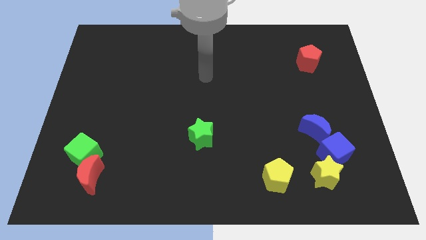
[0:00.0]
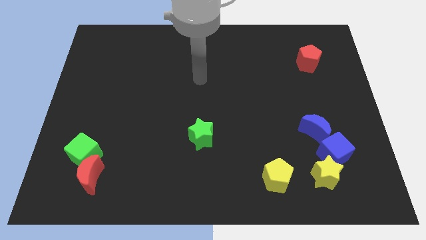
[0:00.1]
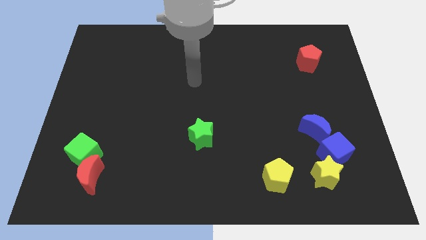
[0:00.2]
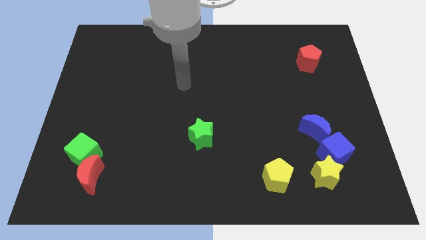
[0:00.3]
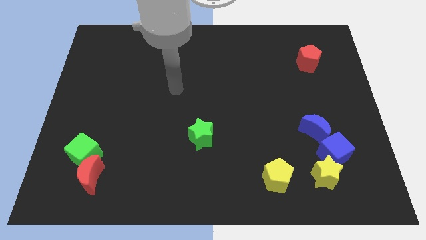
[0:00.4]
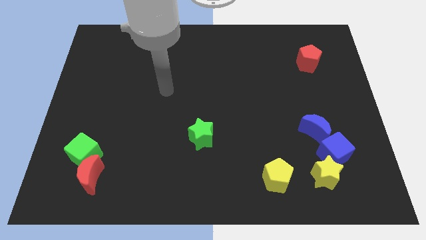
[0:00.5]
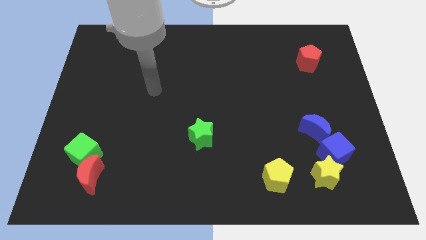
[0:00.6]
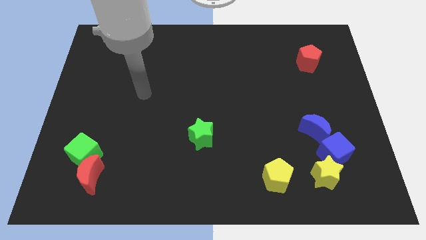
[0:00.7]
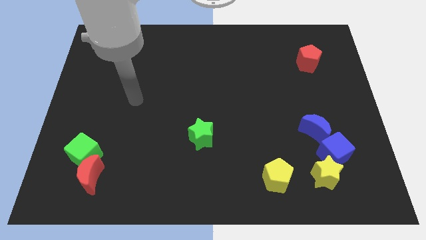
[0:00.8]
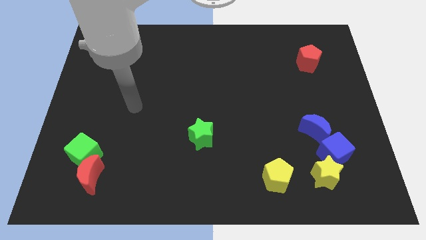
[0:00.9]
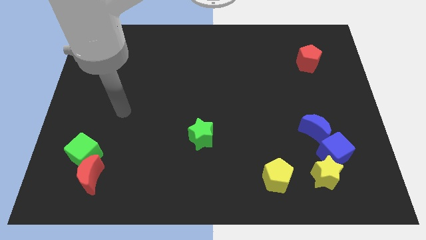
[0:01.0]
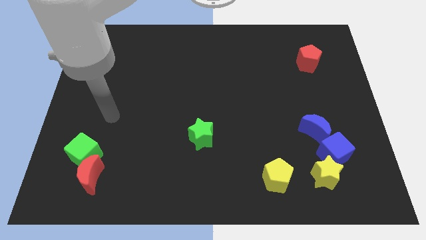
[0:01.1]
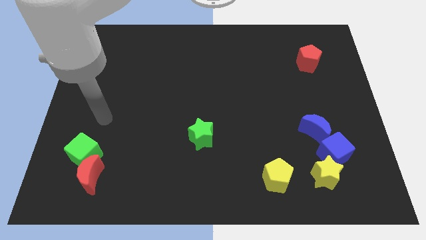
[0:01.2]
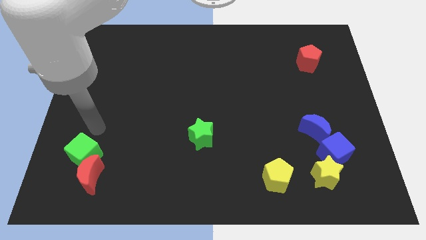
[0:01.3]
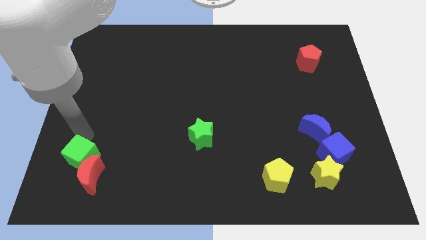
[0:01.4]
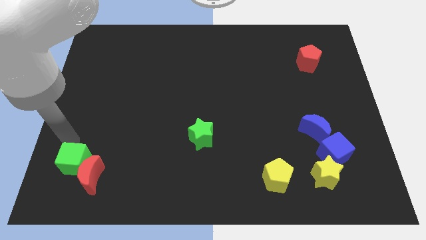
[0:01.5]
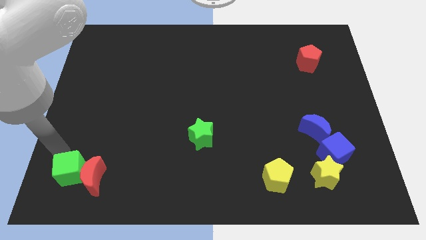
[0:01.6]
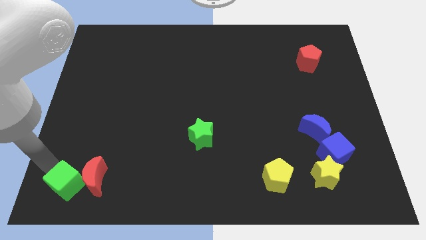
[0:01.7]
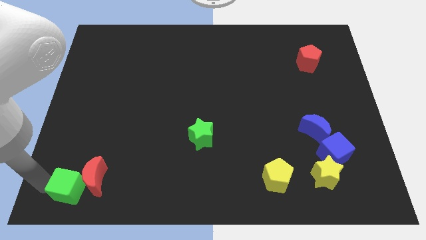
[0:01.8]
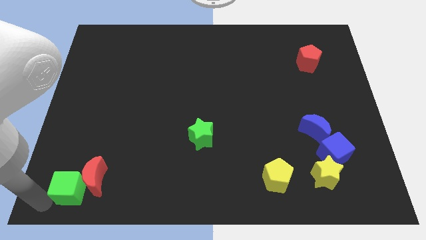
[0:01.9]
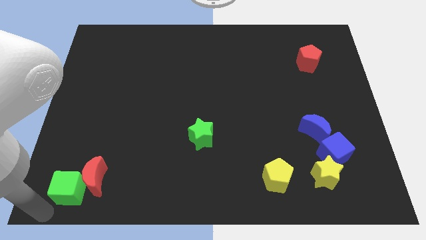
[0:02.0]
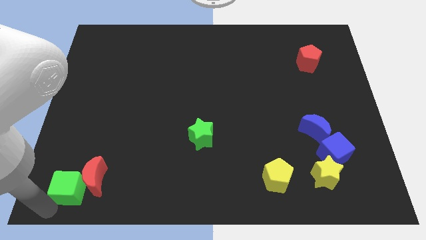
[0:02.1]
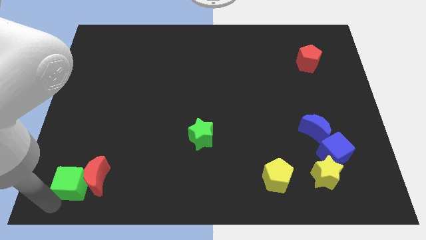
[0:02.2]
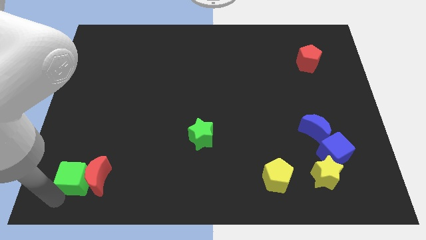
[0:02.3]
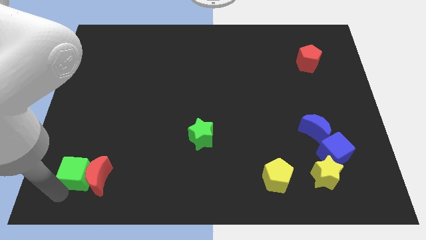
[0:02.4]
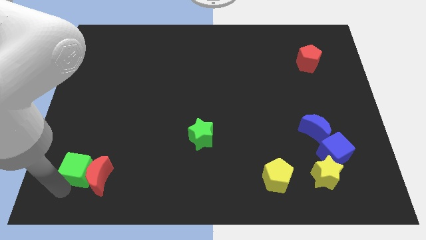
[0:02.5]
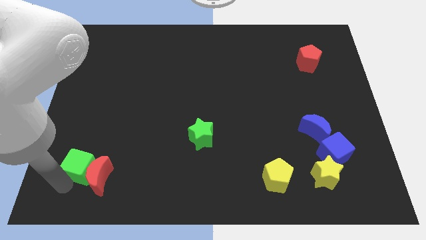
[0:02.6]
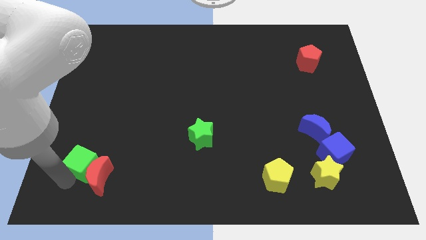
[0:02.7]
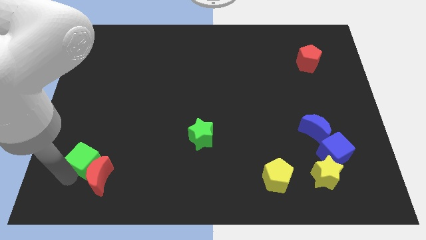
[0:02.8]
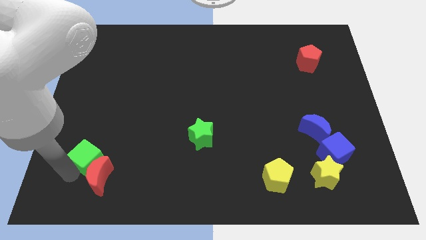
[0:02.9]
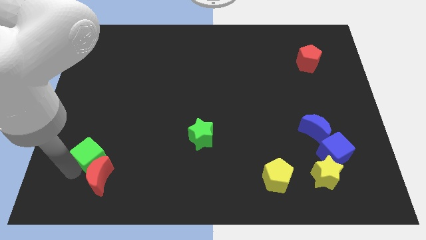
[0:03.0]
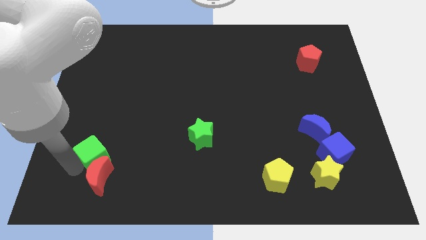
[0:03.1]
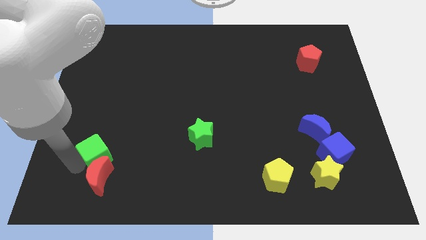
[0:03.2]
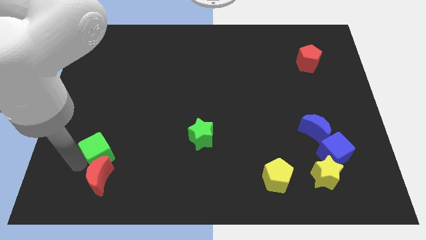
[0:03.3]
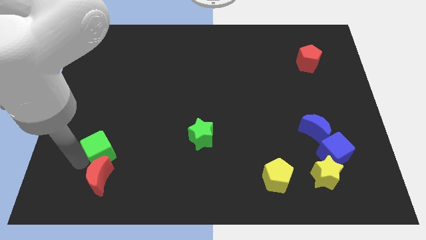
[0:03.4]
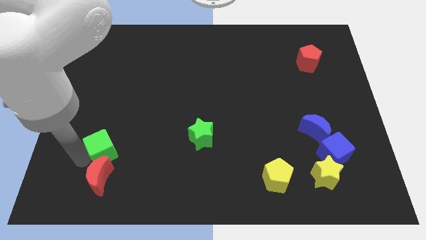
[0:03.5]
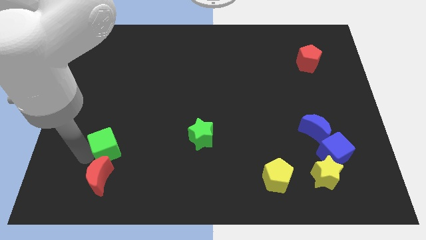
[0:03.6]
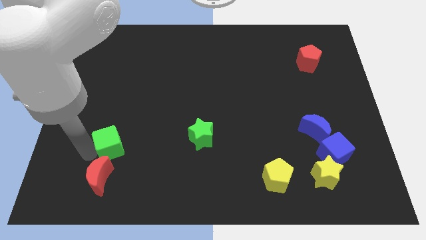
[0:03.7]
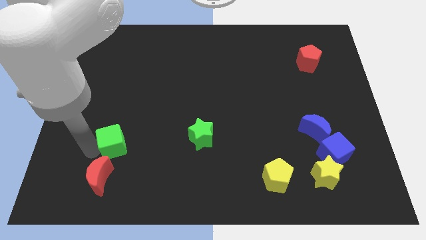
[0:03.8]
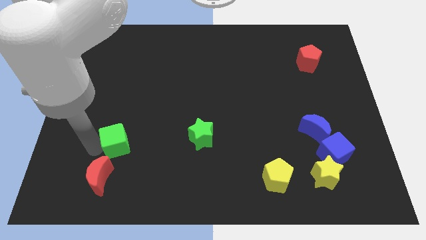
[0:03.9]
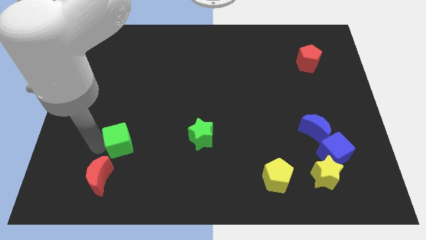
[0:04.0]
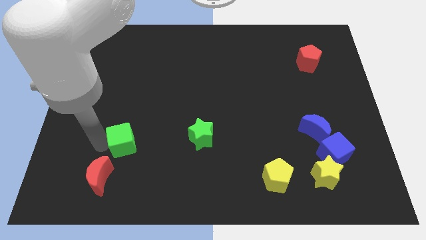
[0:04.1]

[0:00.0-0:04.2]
slide the green cube somewhat to the right

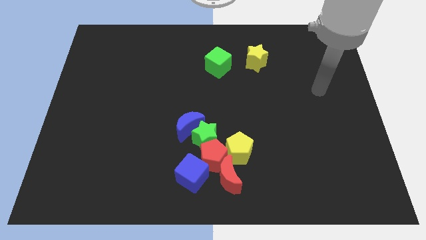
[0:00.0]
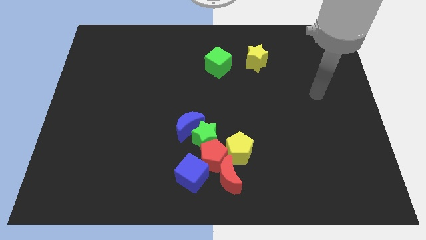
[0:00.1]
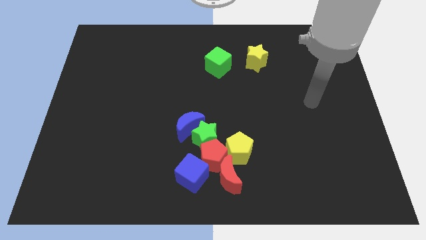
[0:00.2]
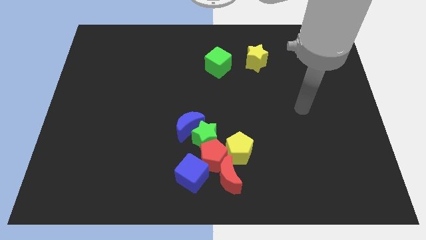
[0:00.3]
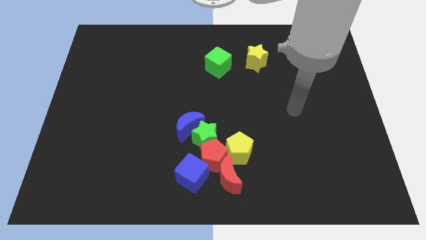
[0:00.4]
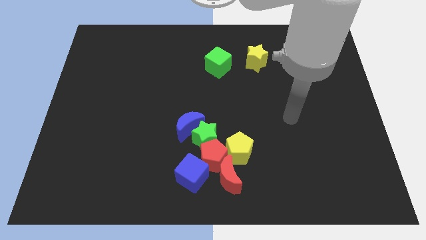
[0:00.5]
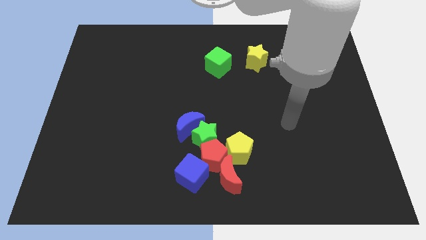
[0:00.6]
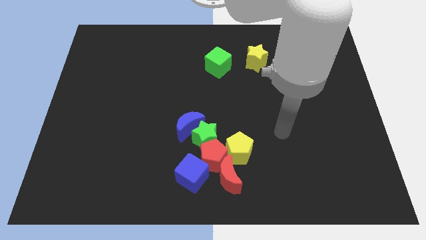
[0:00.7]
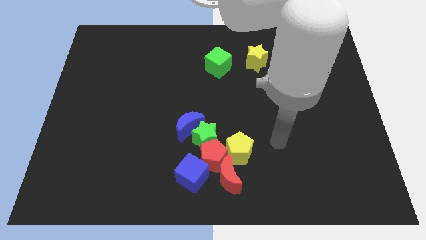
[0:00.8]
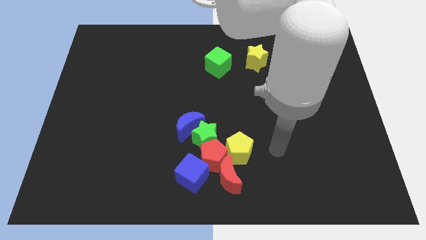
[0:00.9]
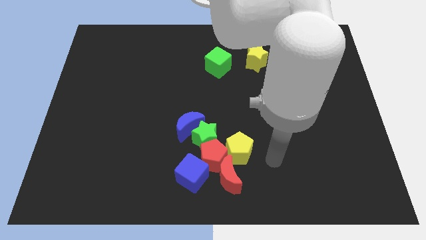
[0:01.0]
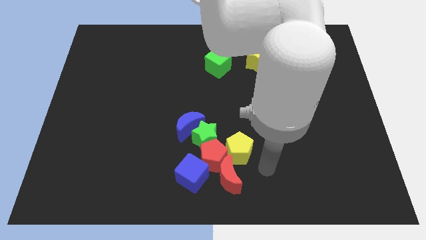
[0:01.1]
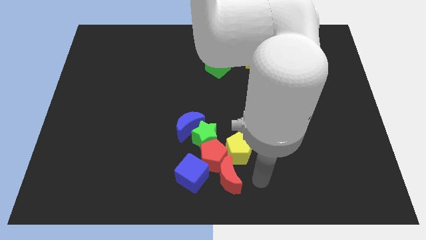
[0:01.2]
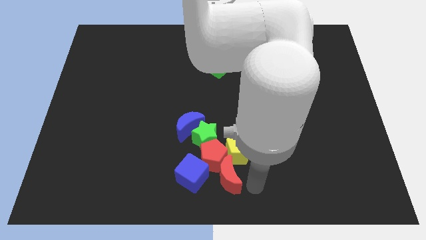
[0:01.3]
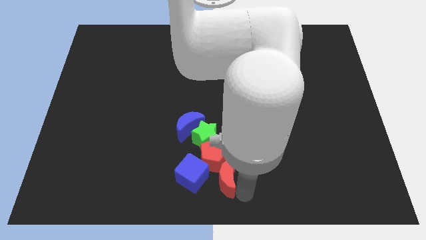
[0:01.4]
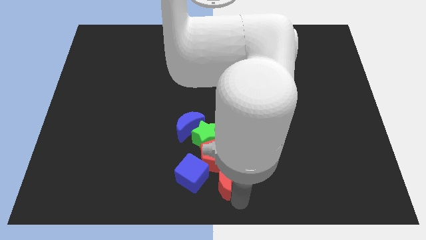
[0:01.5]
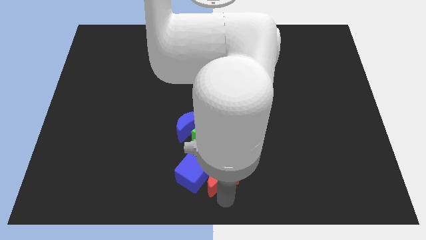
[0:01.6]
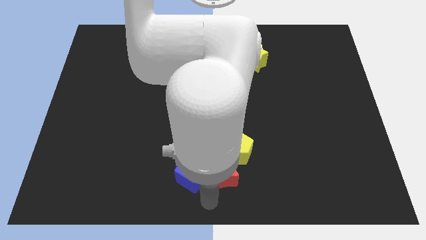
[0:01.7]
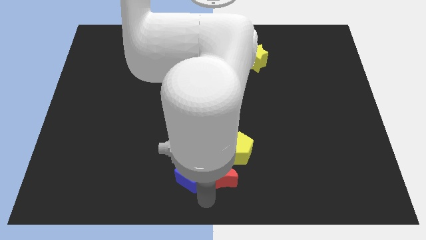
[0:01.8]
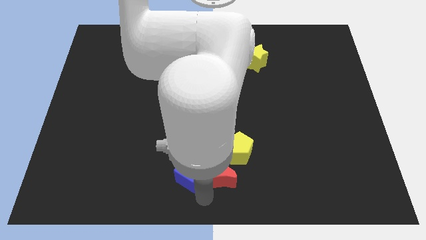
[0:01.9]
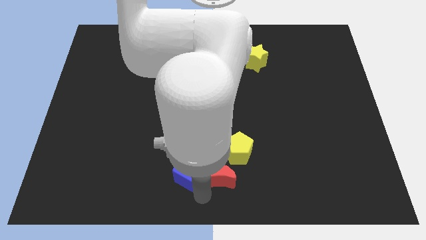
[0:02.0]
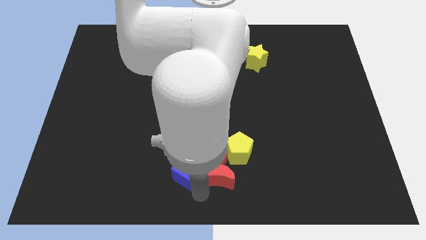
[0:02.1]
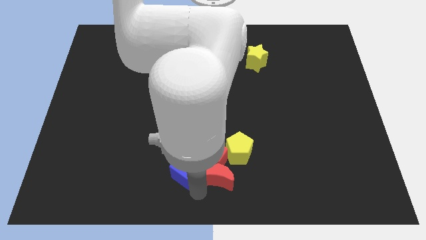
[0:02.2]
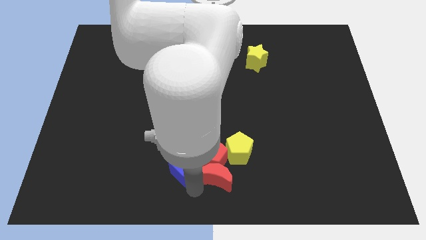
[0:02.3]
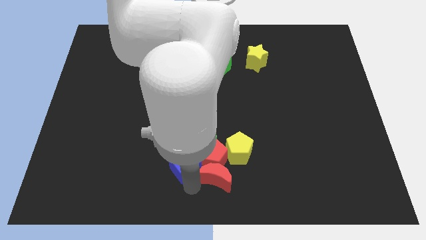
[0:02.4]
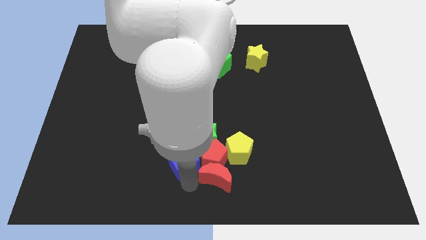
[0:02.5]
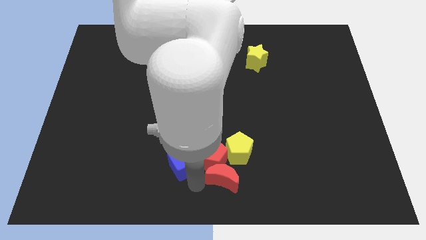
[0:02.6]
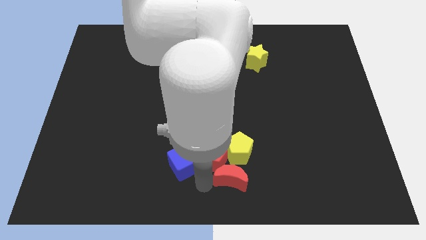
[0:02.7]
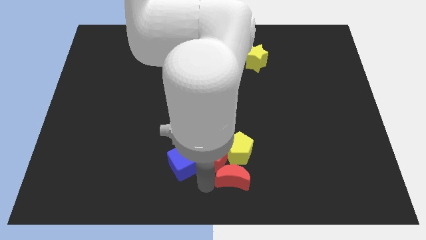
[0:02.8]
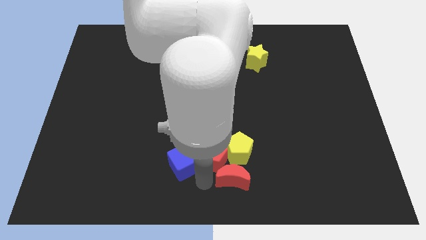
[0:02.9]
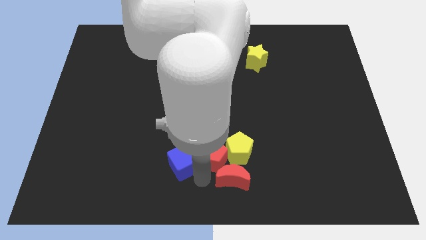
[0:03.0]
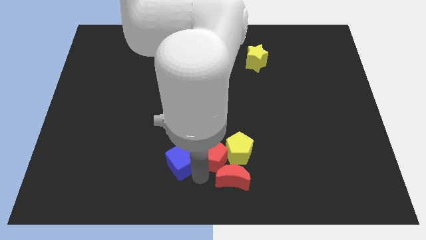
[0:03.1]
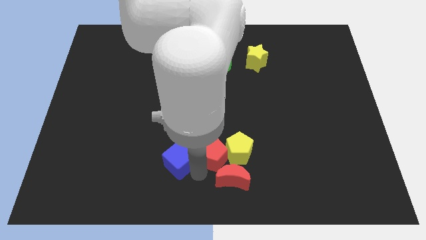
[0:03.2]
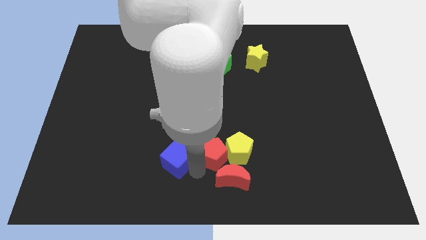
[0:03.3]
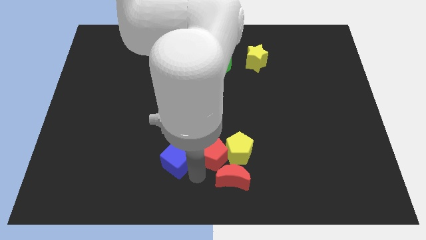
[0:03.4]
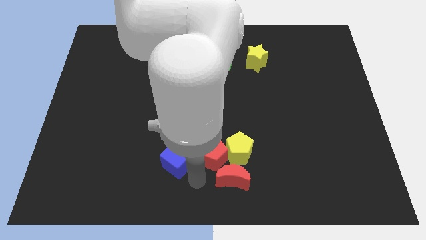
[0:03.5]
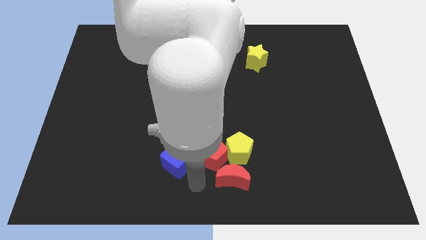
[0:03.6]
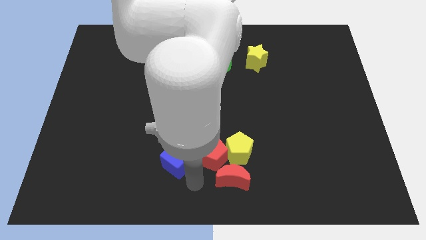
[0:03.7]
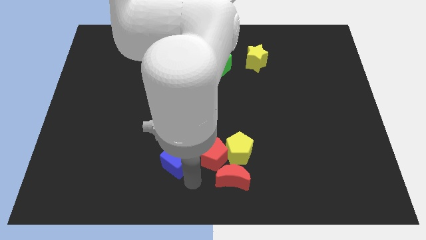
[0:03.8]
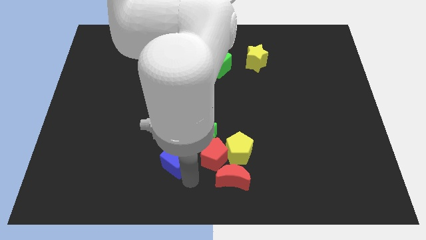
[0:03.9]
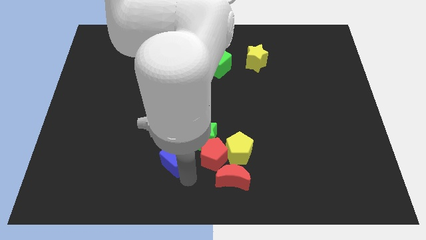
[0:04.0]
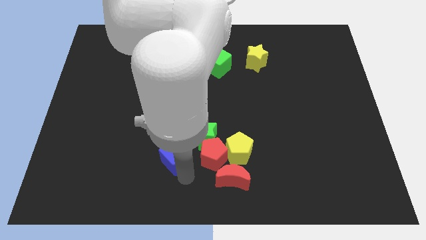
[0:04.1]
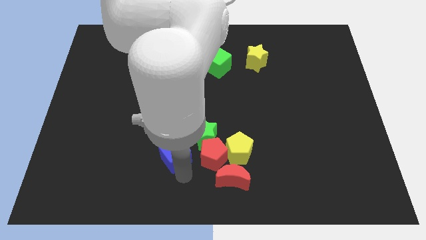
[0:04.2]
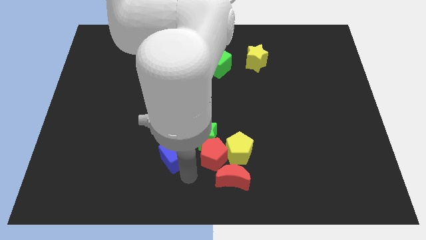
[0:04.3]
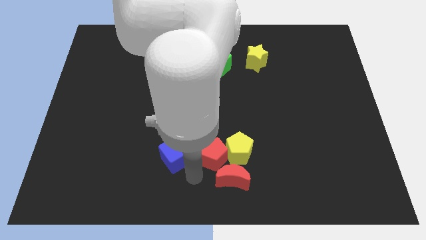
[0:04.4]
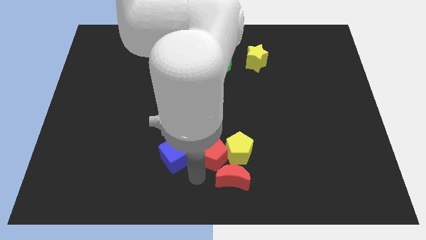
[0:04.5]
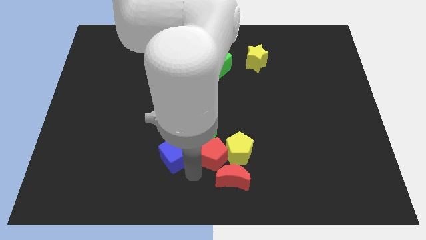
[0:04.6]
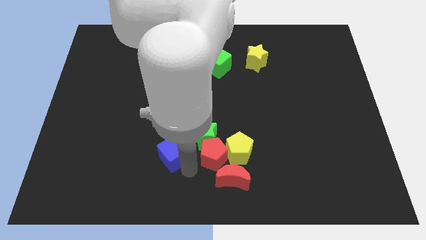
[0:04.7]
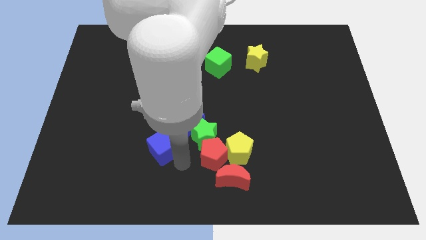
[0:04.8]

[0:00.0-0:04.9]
slightly push the blue cube diagonally up and left
